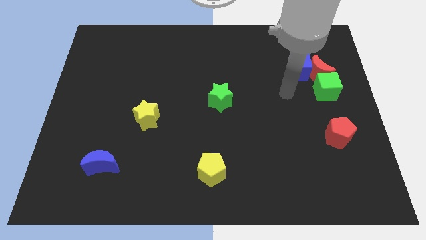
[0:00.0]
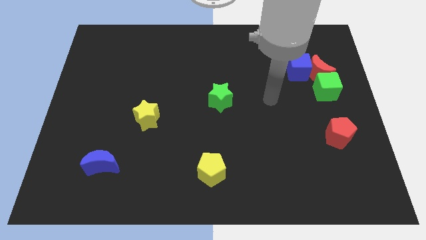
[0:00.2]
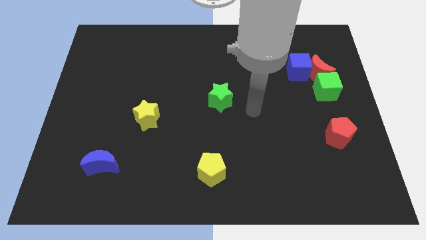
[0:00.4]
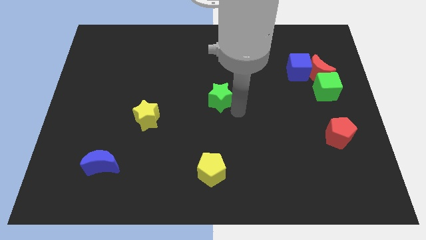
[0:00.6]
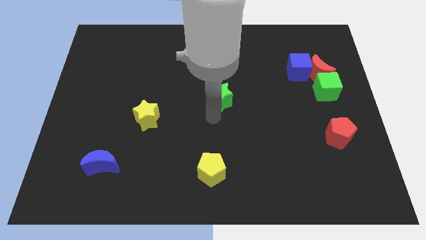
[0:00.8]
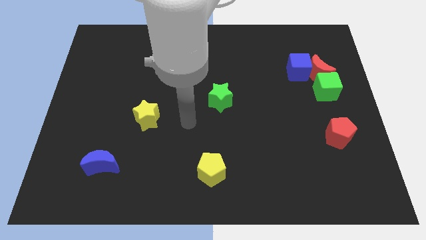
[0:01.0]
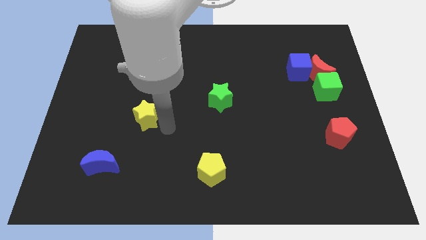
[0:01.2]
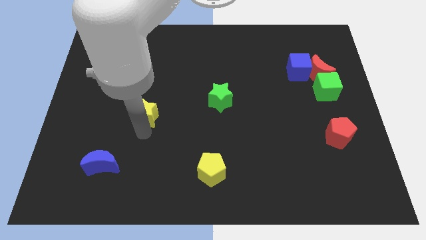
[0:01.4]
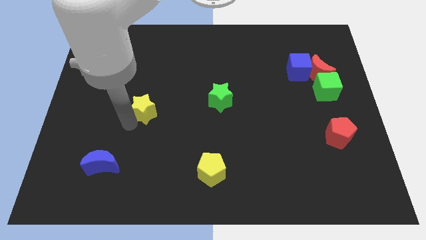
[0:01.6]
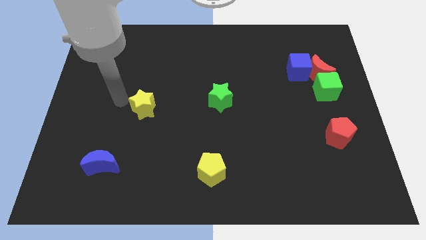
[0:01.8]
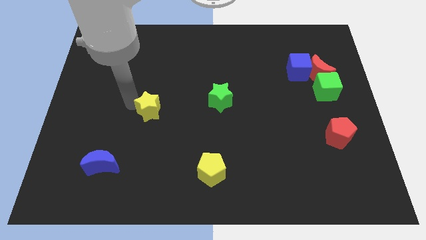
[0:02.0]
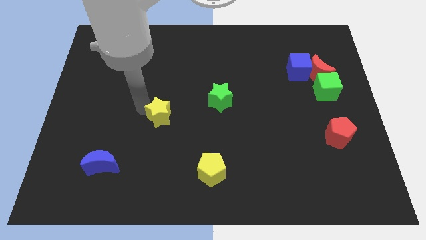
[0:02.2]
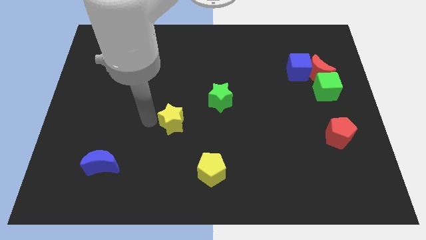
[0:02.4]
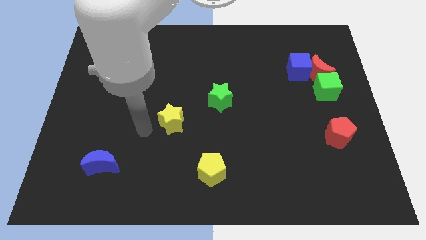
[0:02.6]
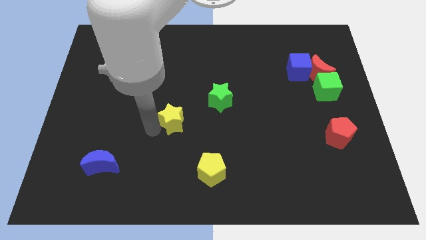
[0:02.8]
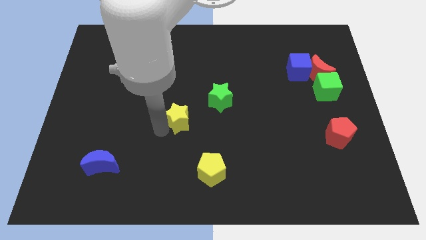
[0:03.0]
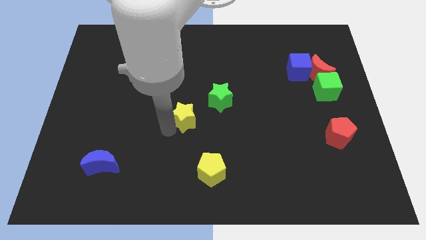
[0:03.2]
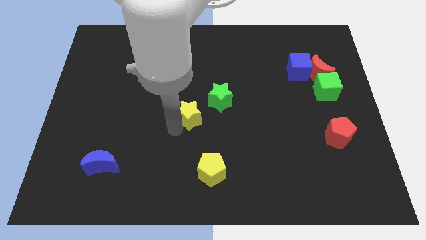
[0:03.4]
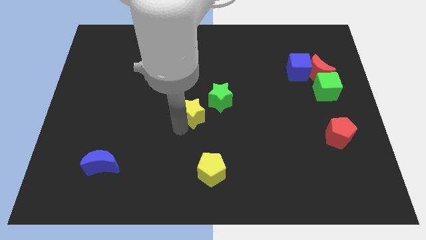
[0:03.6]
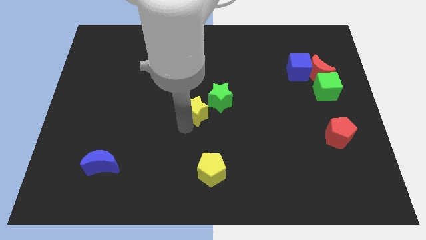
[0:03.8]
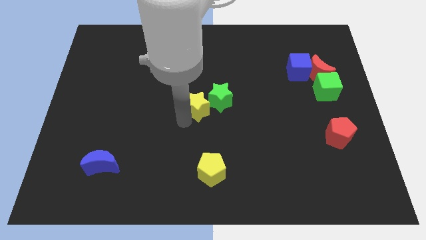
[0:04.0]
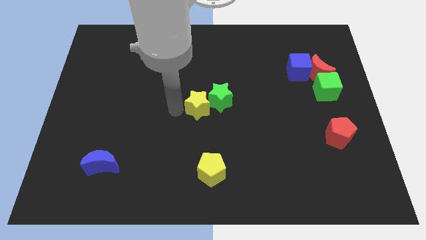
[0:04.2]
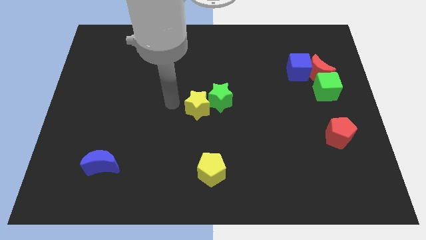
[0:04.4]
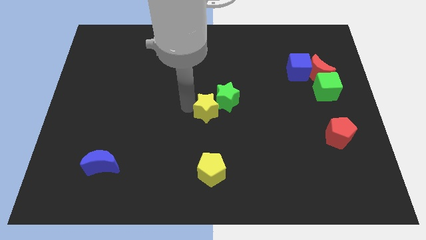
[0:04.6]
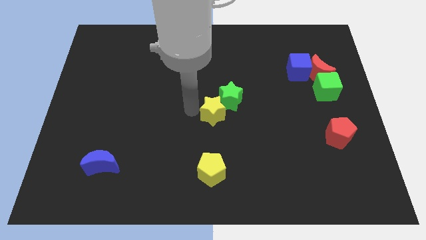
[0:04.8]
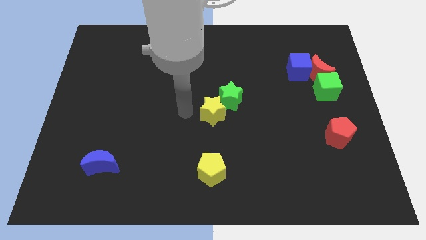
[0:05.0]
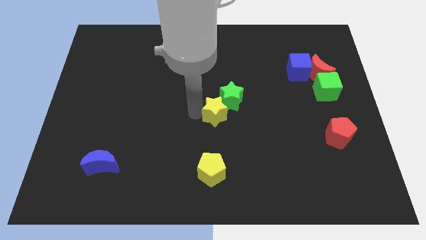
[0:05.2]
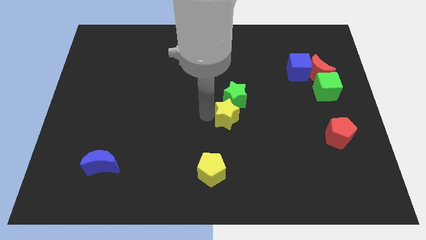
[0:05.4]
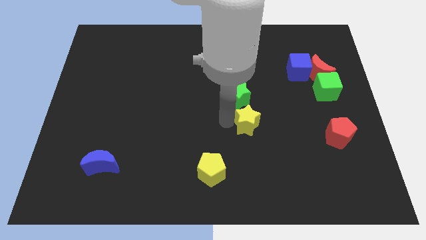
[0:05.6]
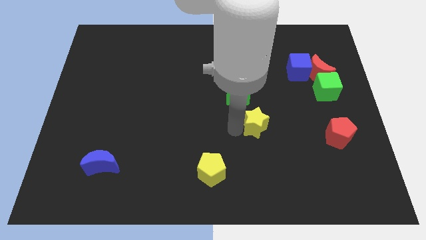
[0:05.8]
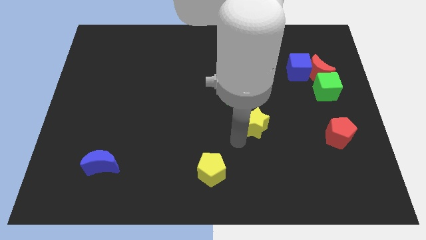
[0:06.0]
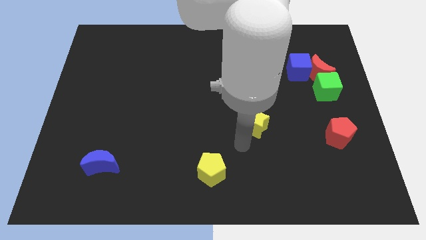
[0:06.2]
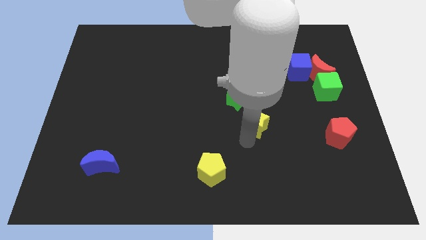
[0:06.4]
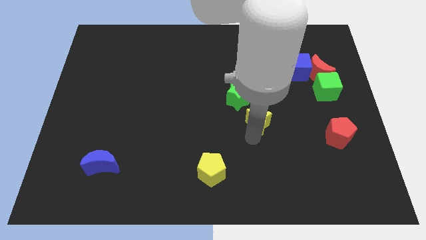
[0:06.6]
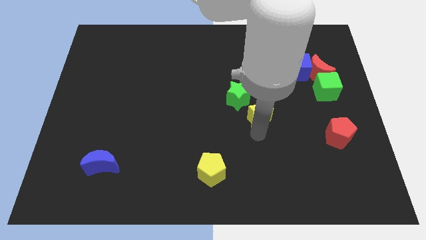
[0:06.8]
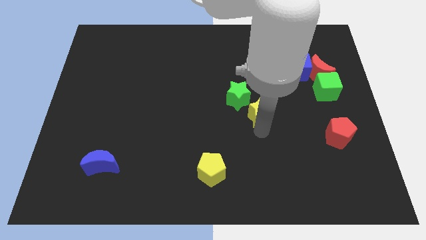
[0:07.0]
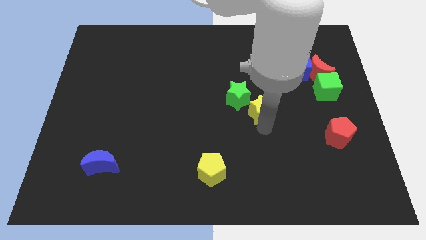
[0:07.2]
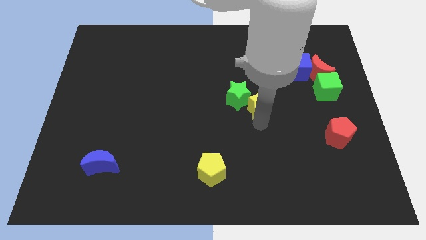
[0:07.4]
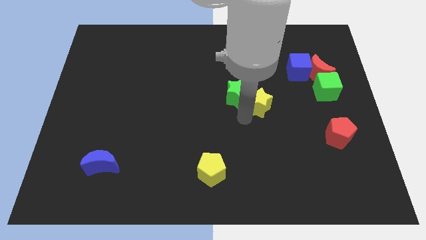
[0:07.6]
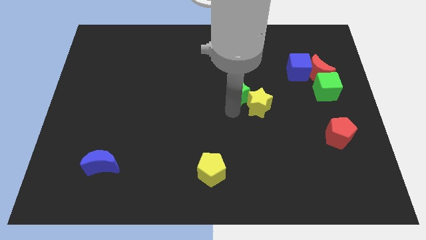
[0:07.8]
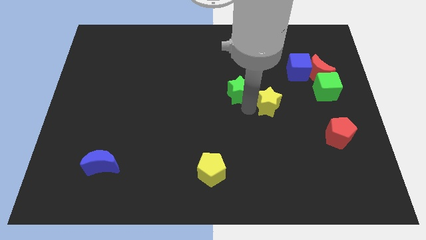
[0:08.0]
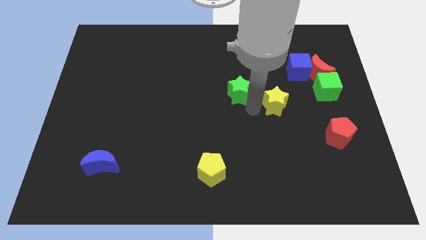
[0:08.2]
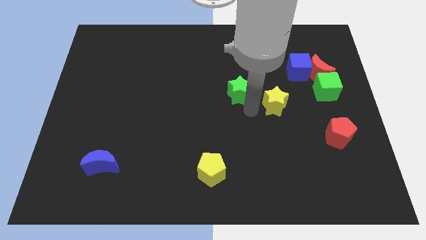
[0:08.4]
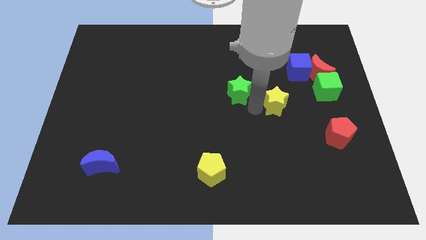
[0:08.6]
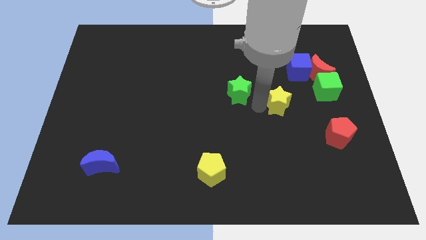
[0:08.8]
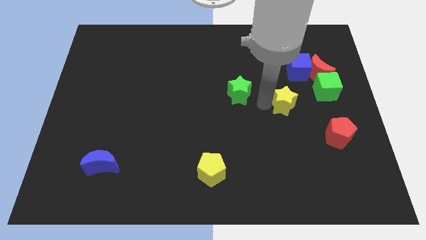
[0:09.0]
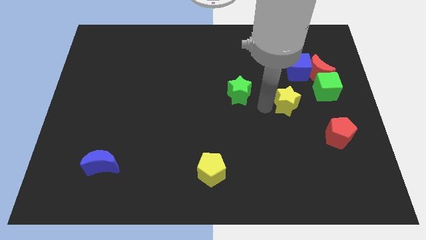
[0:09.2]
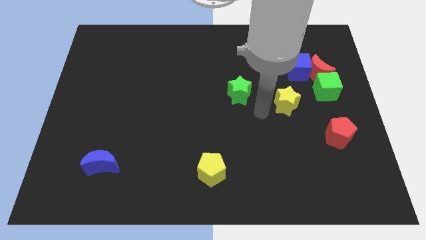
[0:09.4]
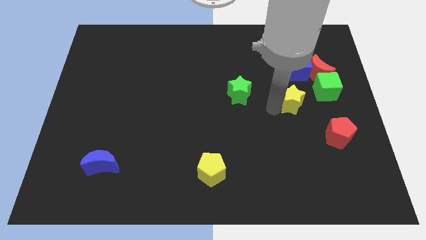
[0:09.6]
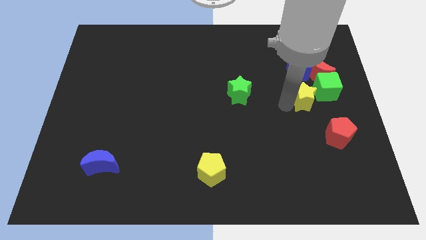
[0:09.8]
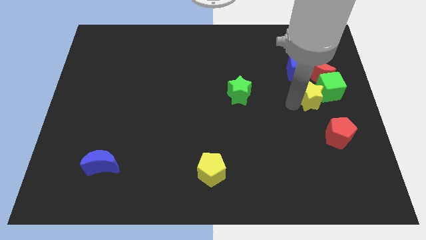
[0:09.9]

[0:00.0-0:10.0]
slide the yellow star next to the green cube

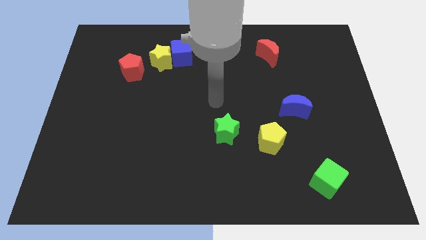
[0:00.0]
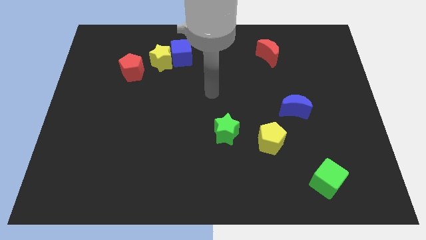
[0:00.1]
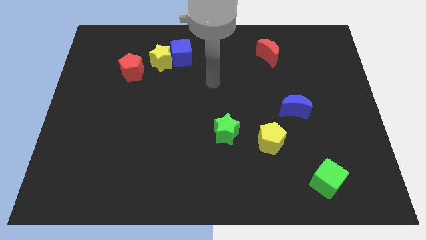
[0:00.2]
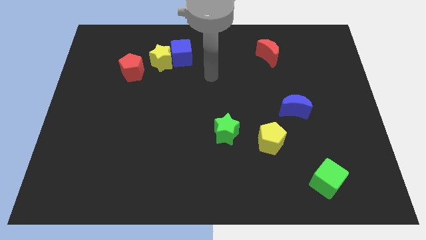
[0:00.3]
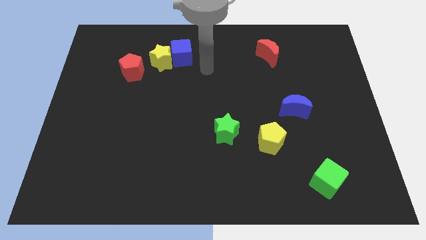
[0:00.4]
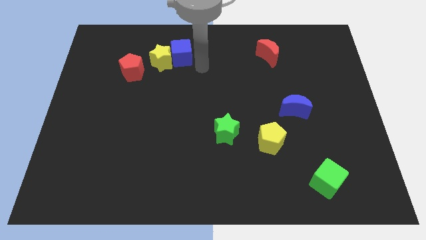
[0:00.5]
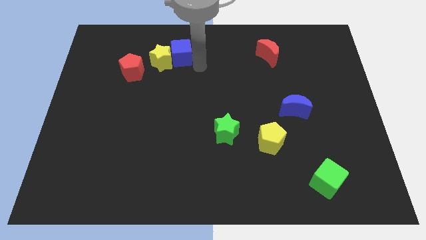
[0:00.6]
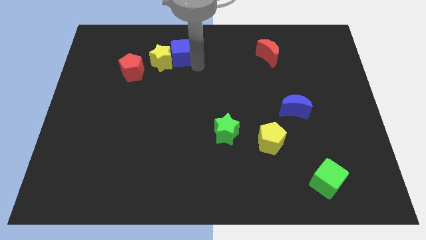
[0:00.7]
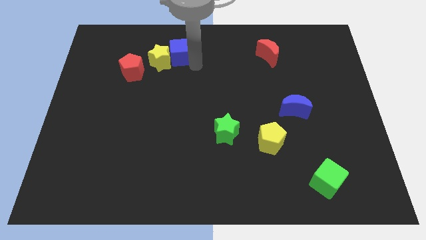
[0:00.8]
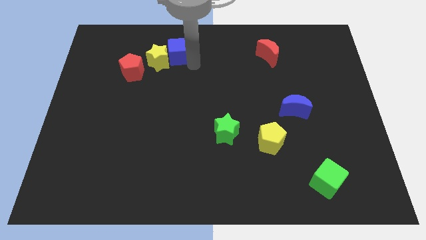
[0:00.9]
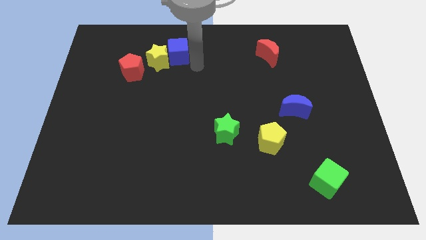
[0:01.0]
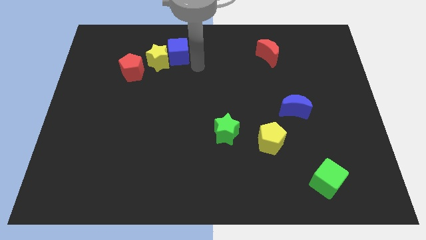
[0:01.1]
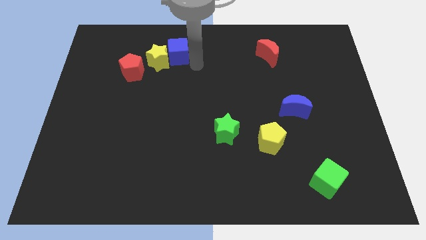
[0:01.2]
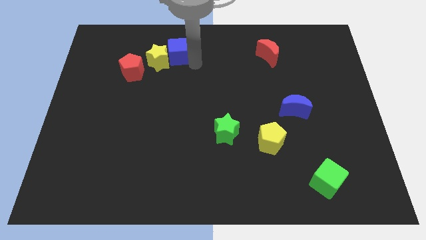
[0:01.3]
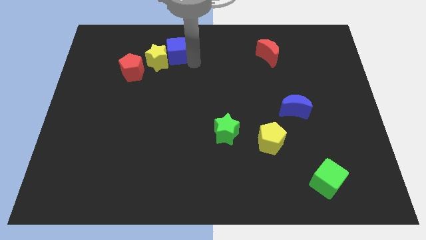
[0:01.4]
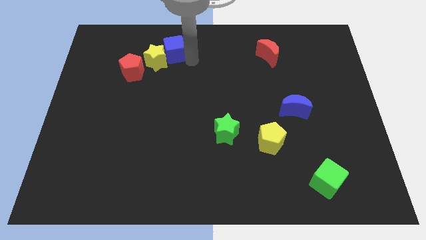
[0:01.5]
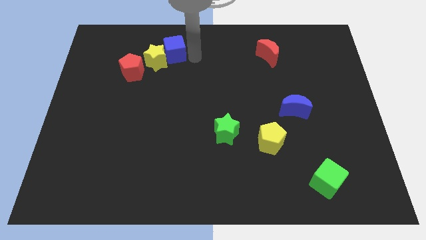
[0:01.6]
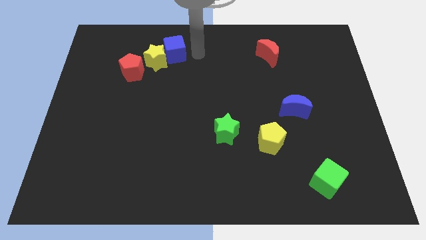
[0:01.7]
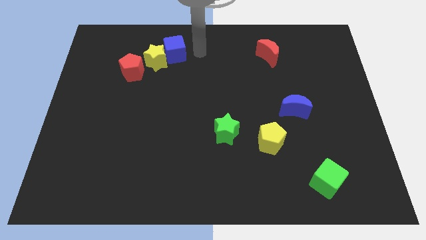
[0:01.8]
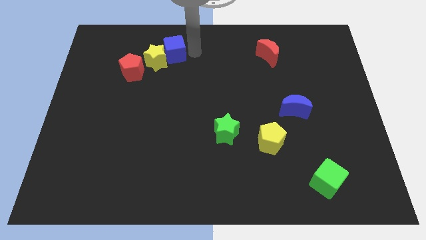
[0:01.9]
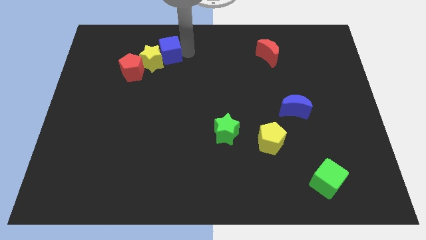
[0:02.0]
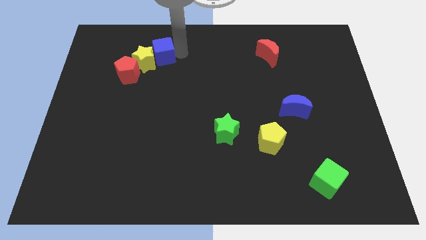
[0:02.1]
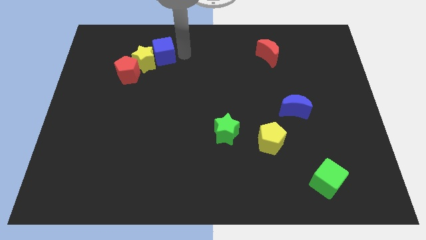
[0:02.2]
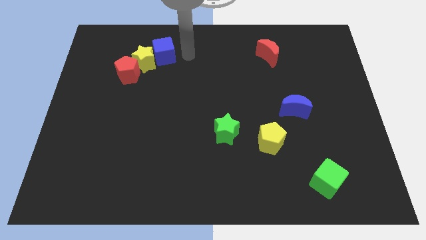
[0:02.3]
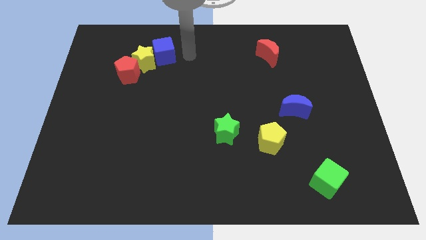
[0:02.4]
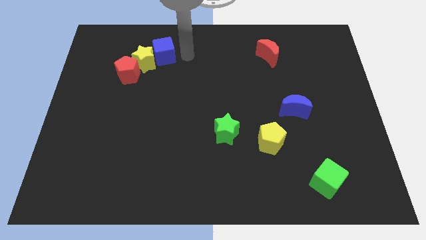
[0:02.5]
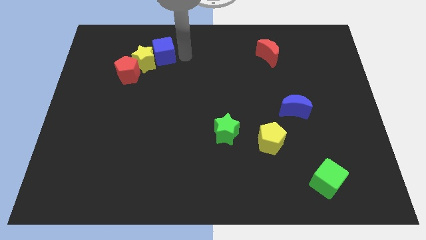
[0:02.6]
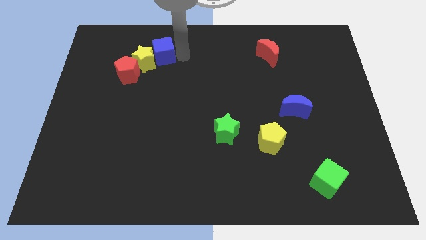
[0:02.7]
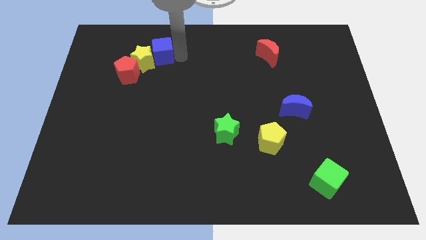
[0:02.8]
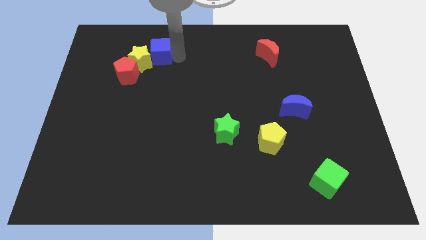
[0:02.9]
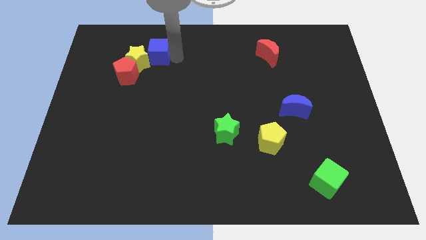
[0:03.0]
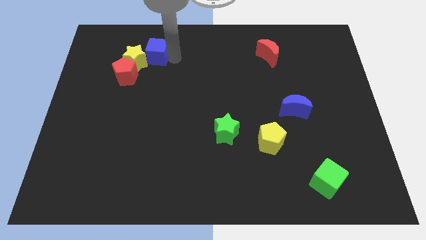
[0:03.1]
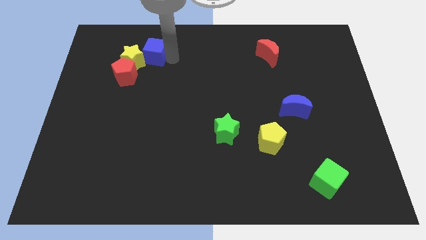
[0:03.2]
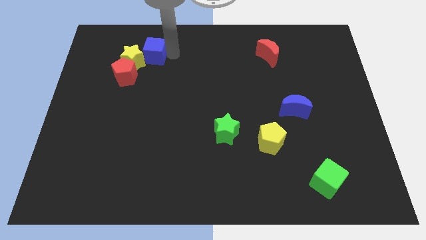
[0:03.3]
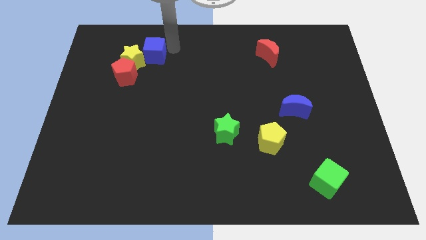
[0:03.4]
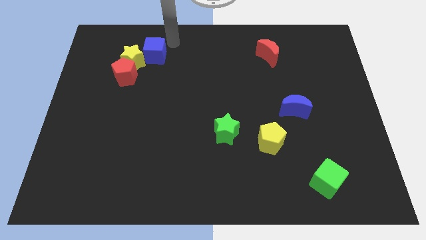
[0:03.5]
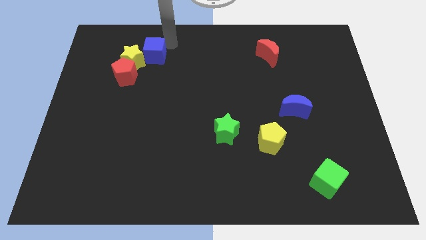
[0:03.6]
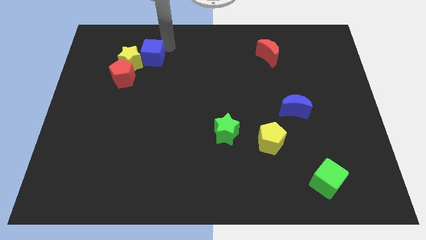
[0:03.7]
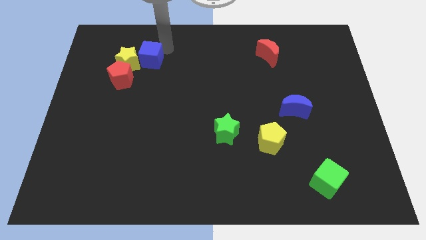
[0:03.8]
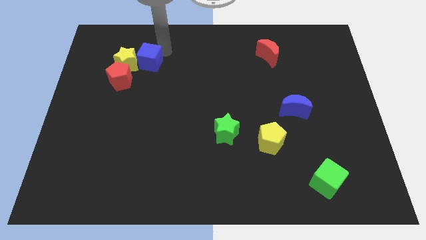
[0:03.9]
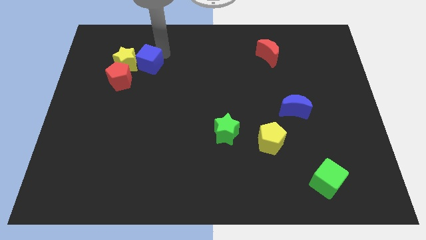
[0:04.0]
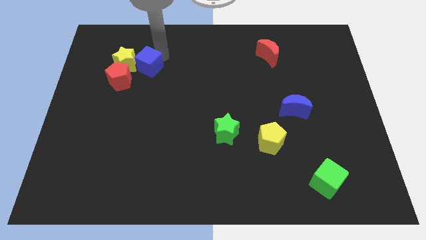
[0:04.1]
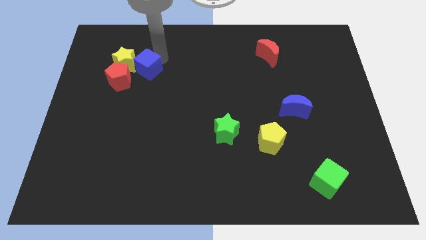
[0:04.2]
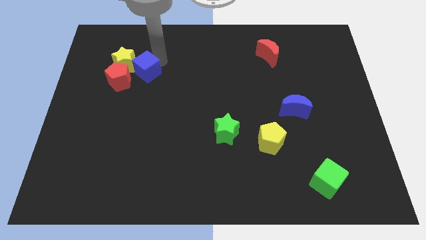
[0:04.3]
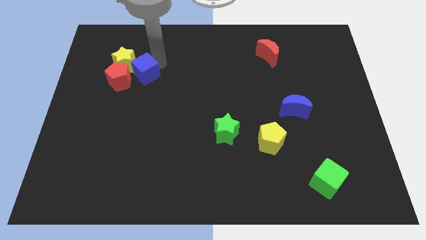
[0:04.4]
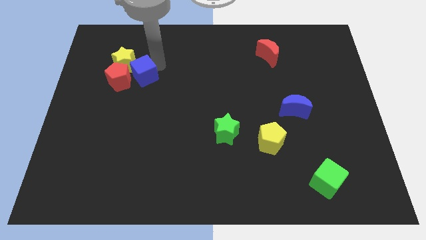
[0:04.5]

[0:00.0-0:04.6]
put the blue cube to the red pentagon
